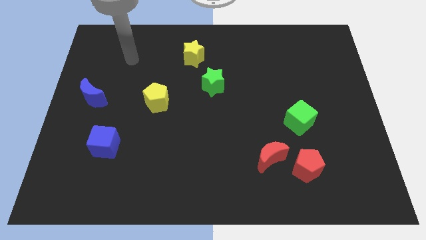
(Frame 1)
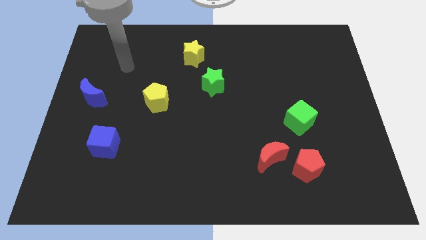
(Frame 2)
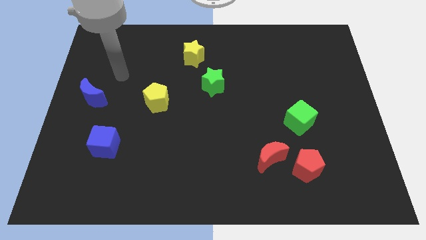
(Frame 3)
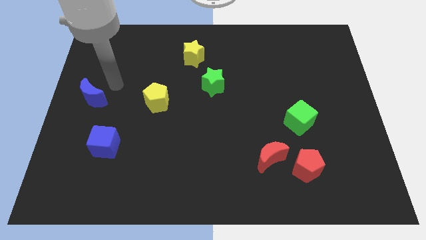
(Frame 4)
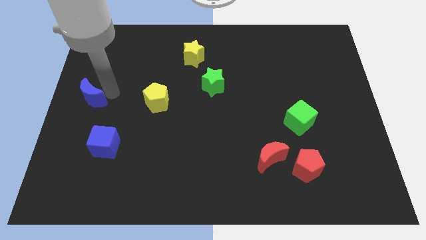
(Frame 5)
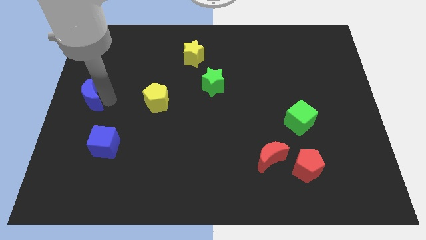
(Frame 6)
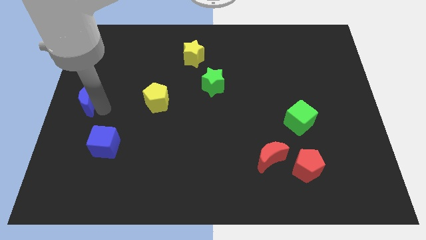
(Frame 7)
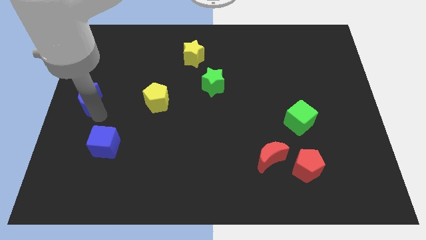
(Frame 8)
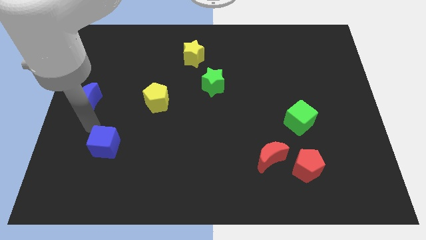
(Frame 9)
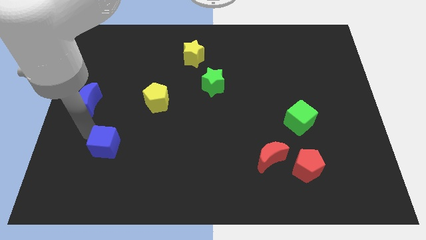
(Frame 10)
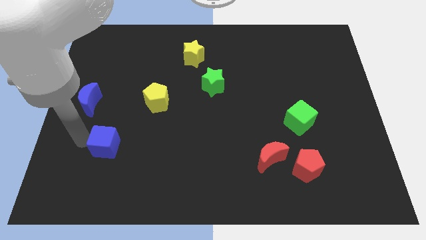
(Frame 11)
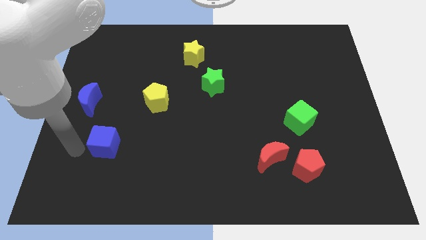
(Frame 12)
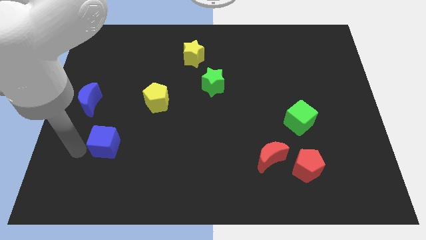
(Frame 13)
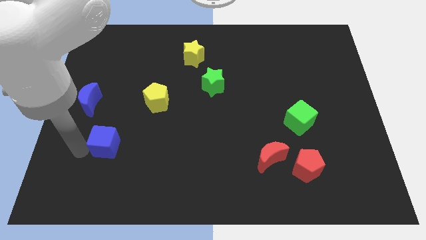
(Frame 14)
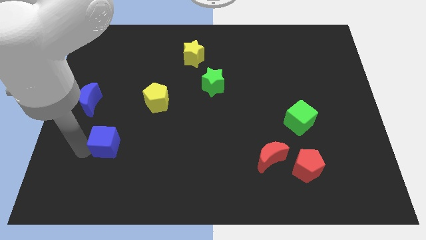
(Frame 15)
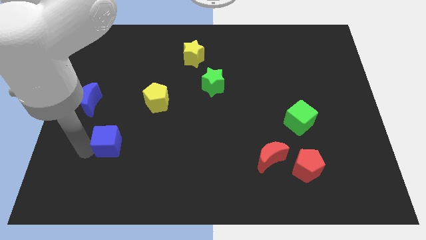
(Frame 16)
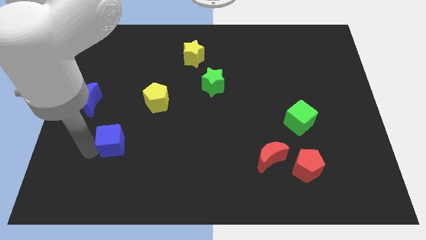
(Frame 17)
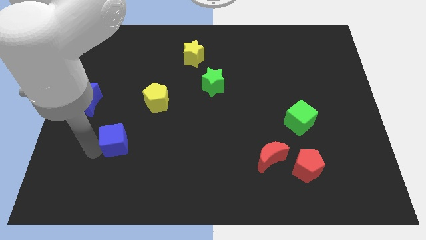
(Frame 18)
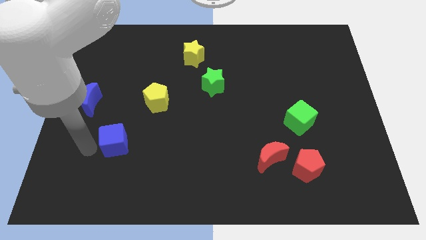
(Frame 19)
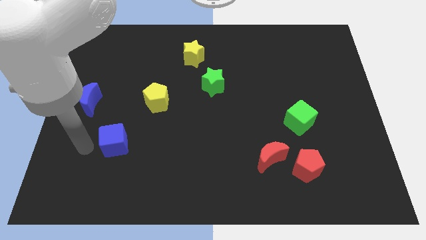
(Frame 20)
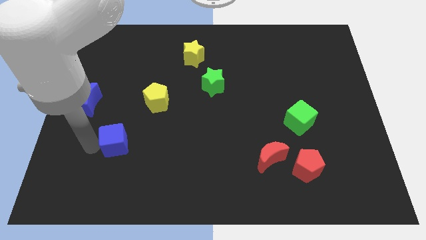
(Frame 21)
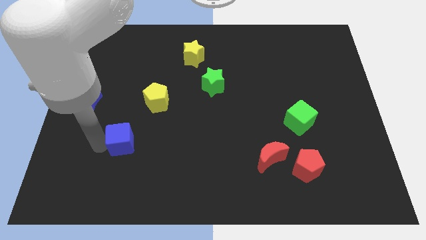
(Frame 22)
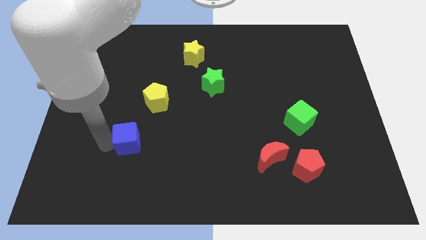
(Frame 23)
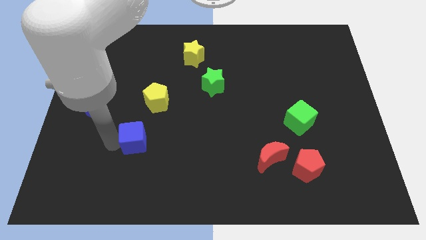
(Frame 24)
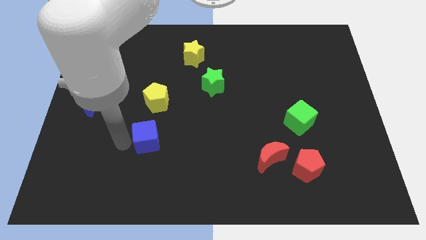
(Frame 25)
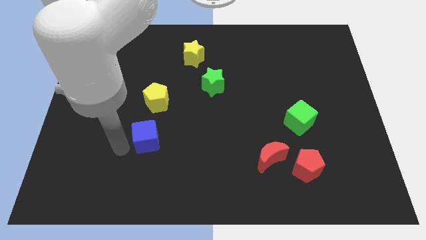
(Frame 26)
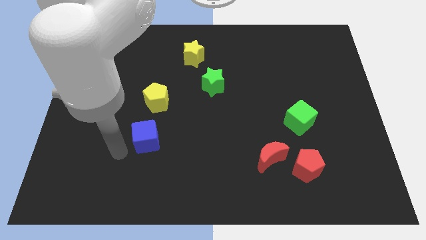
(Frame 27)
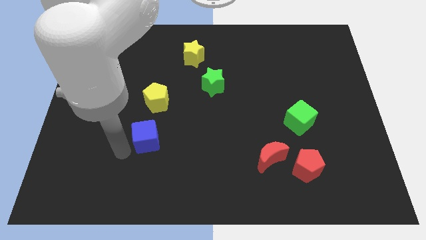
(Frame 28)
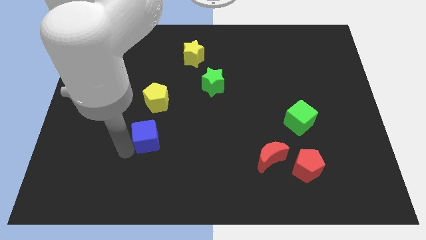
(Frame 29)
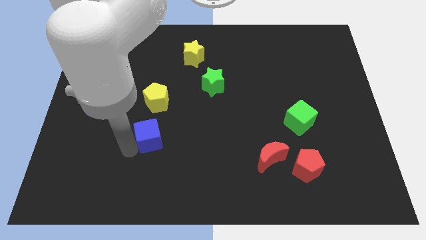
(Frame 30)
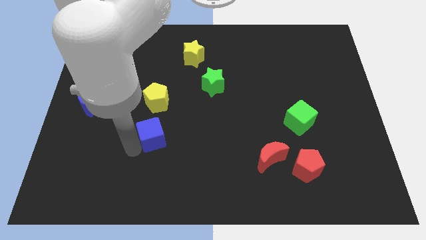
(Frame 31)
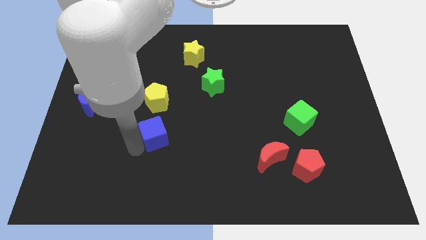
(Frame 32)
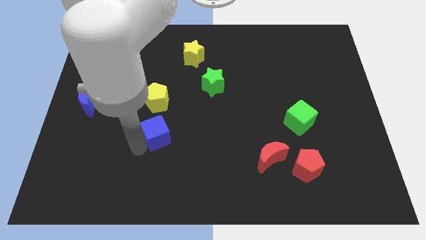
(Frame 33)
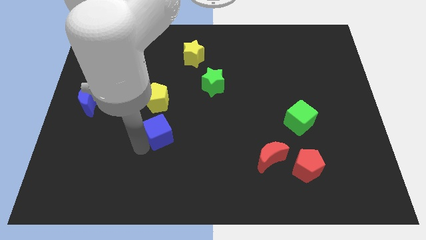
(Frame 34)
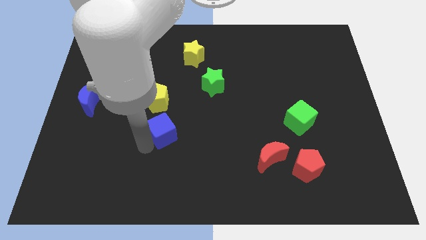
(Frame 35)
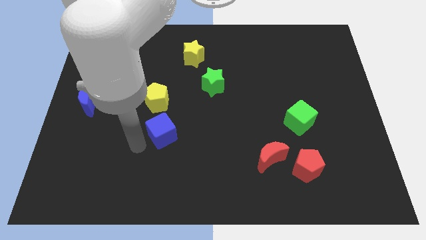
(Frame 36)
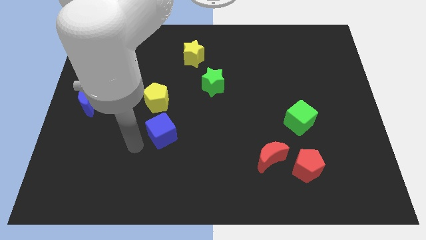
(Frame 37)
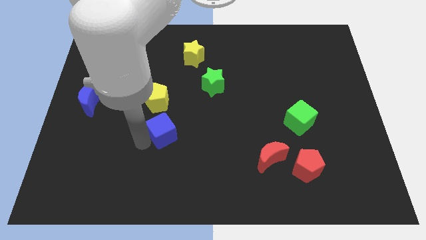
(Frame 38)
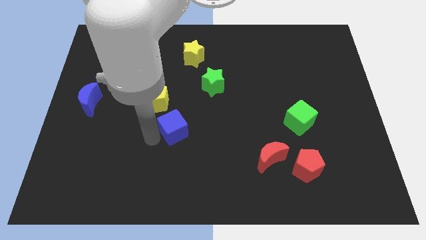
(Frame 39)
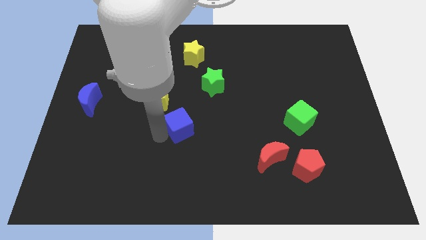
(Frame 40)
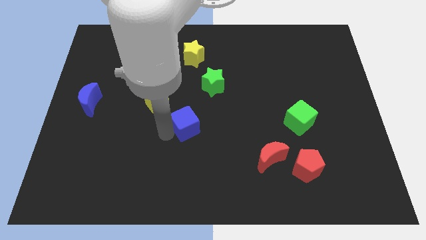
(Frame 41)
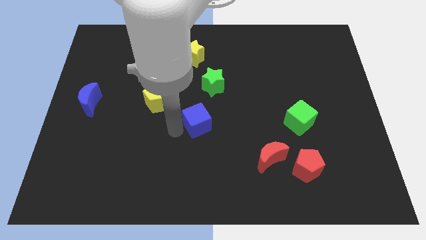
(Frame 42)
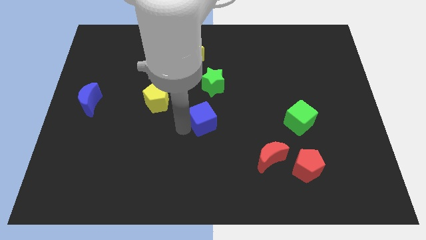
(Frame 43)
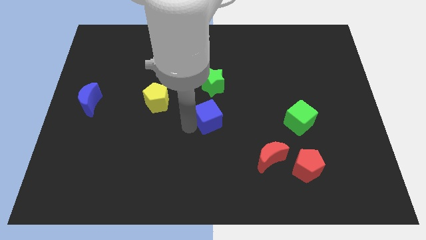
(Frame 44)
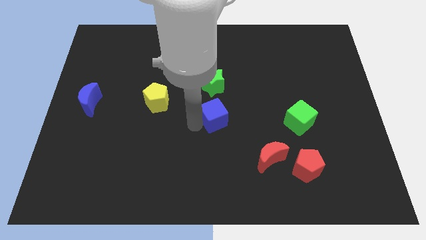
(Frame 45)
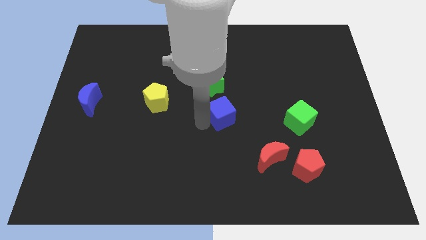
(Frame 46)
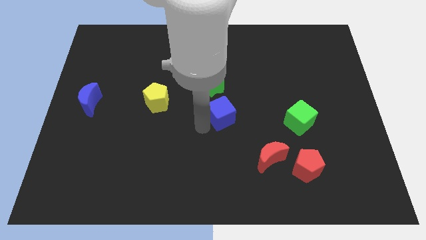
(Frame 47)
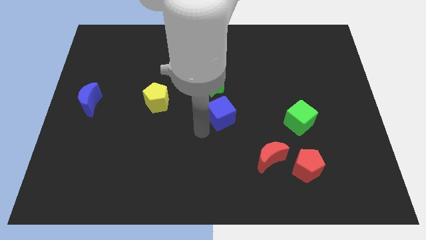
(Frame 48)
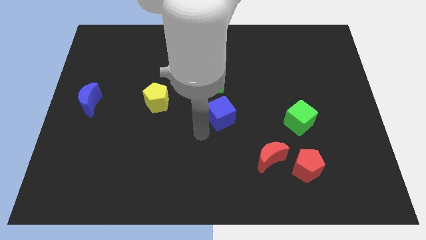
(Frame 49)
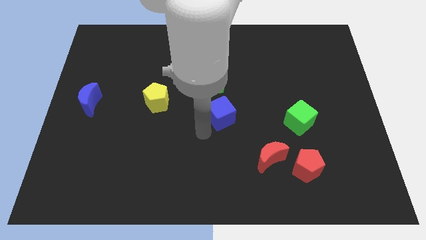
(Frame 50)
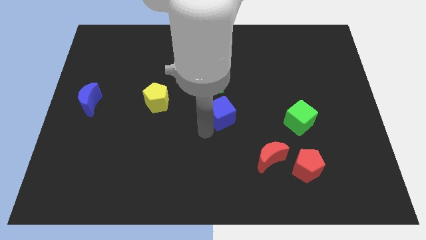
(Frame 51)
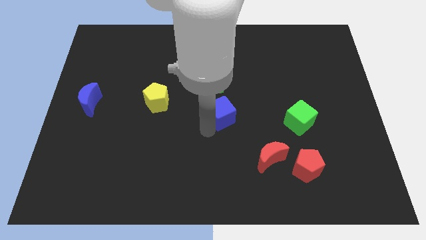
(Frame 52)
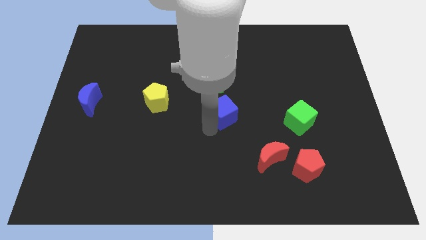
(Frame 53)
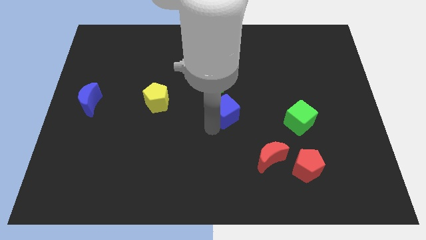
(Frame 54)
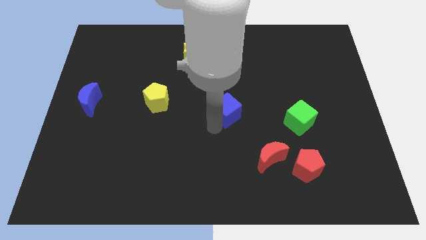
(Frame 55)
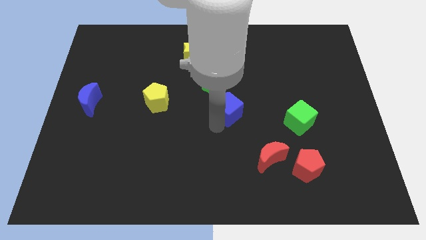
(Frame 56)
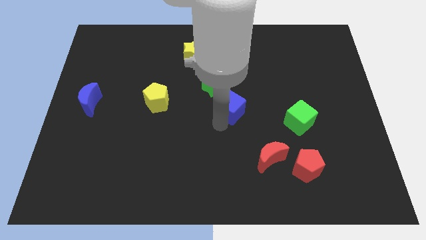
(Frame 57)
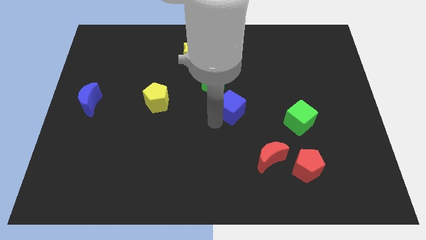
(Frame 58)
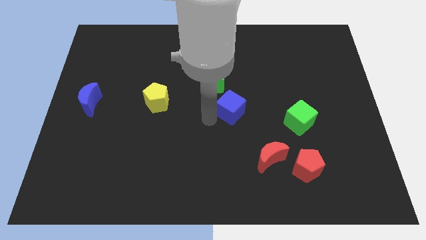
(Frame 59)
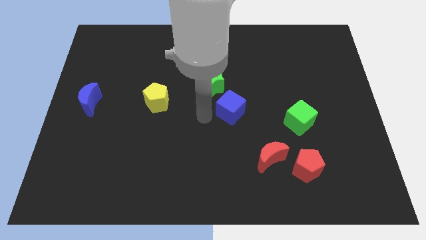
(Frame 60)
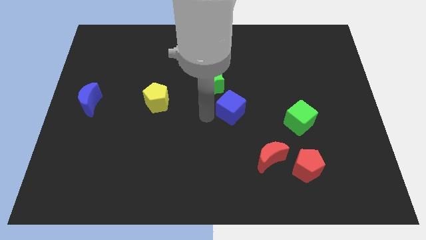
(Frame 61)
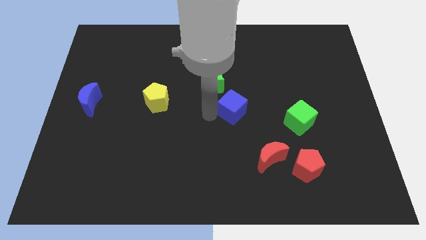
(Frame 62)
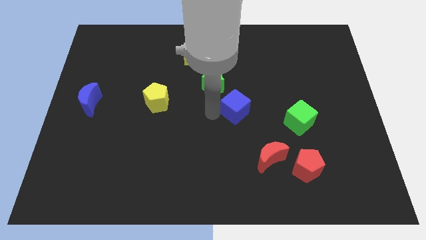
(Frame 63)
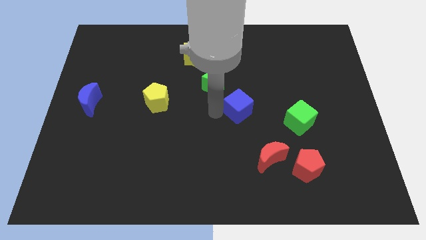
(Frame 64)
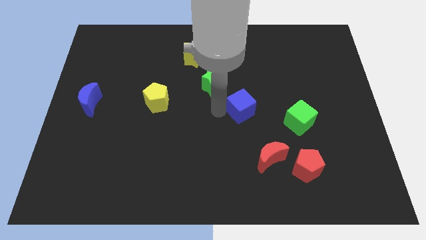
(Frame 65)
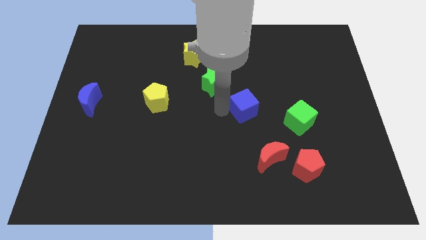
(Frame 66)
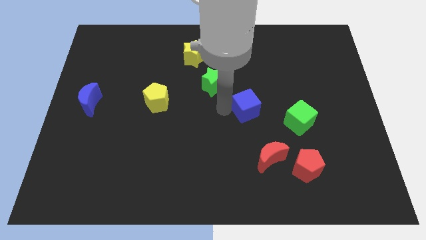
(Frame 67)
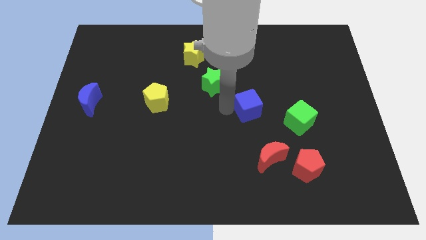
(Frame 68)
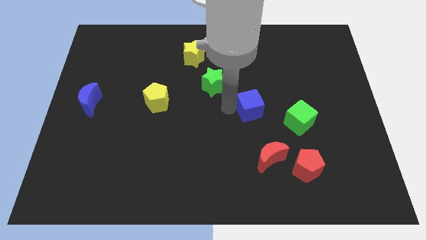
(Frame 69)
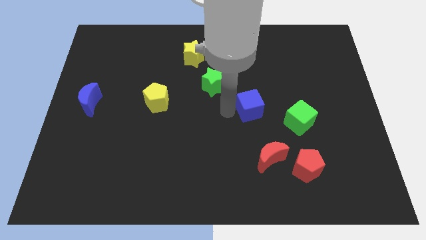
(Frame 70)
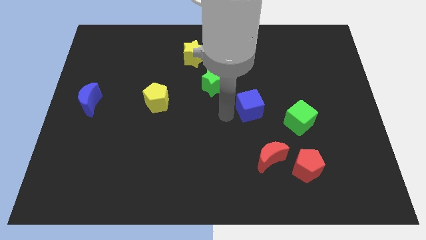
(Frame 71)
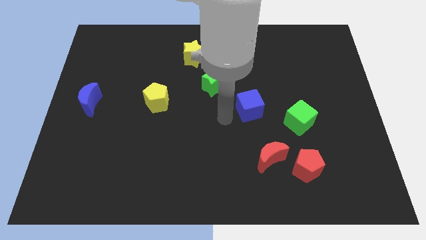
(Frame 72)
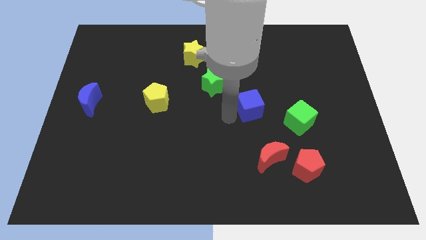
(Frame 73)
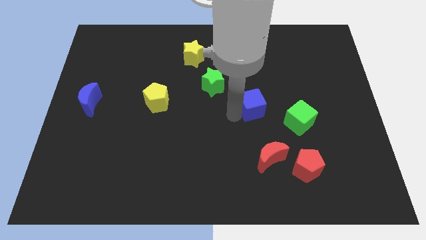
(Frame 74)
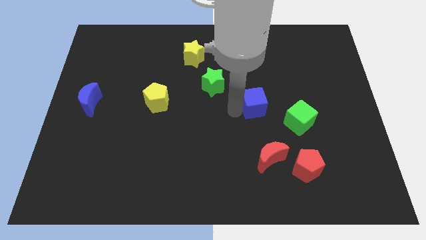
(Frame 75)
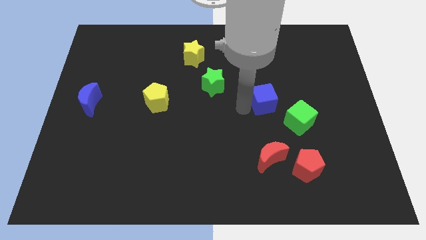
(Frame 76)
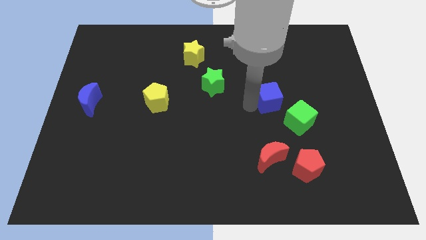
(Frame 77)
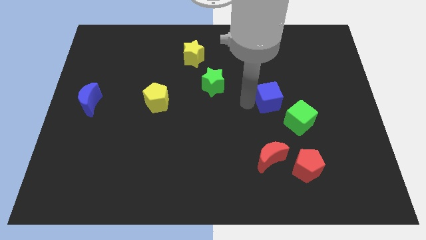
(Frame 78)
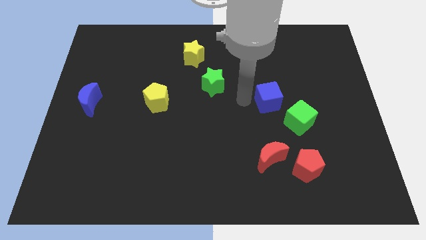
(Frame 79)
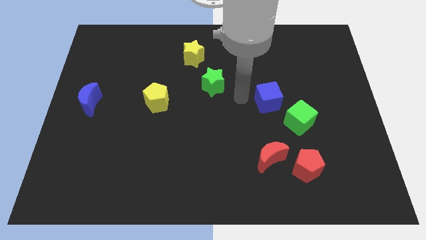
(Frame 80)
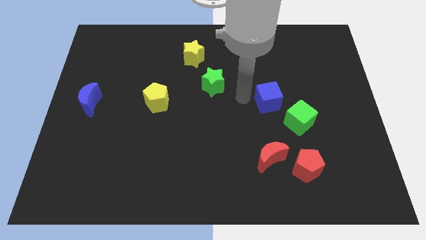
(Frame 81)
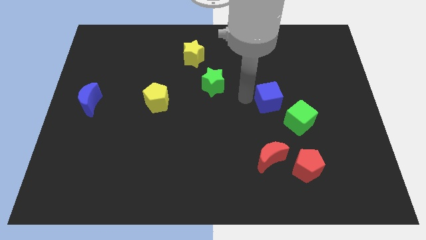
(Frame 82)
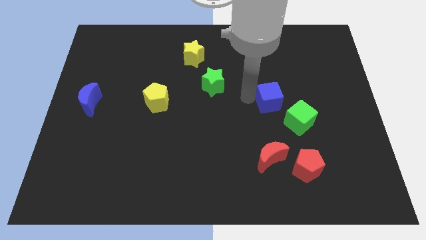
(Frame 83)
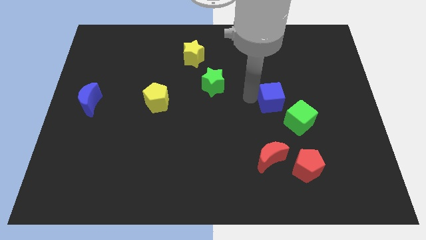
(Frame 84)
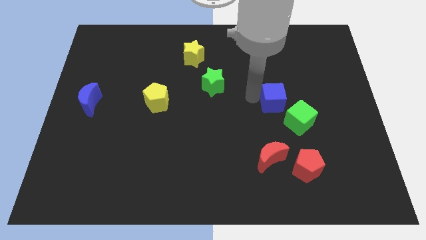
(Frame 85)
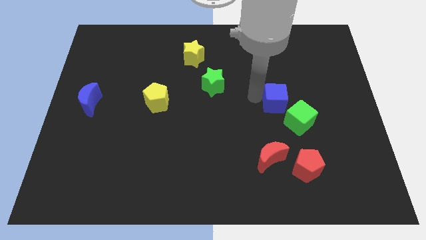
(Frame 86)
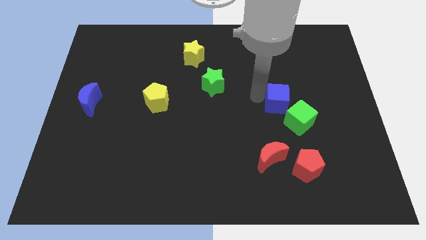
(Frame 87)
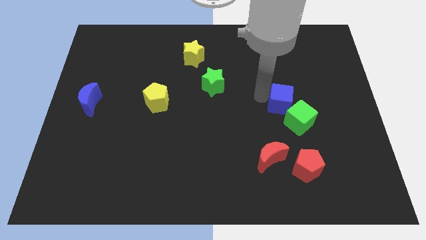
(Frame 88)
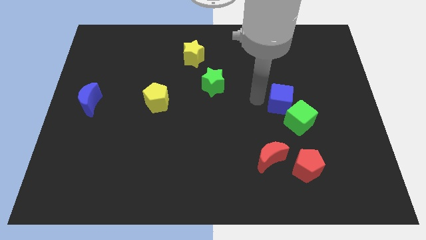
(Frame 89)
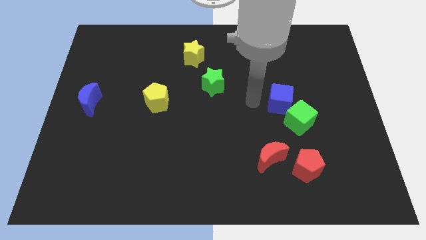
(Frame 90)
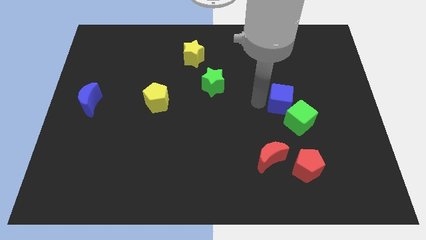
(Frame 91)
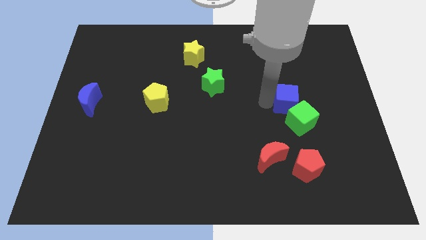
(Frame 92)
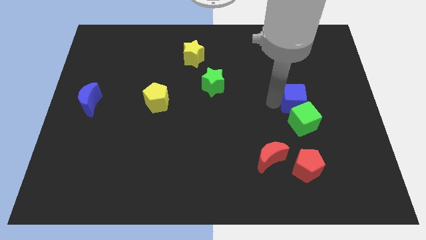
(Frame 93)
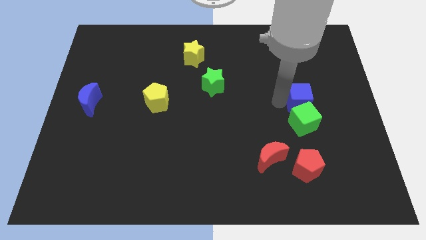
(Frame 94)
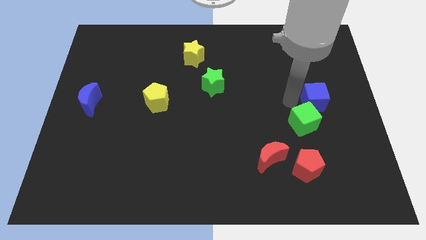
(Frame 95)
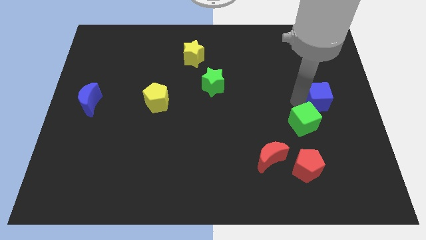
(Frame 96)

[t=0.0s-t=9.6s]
put the blue cube to the center right
